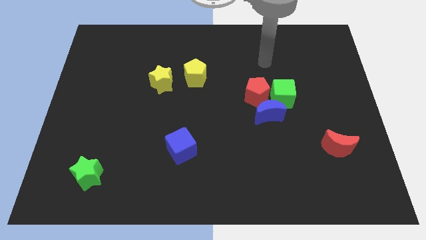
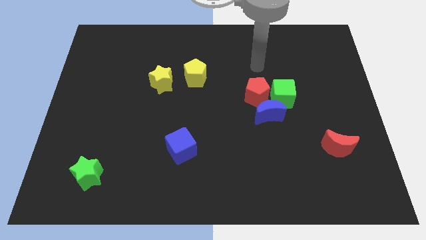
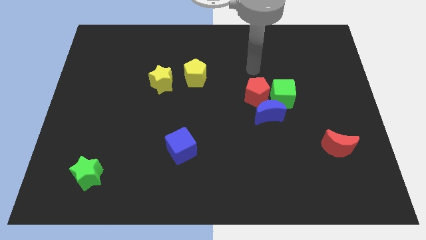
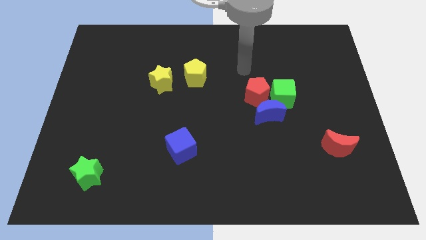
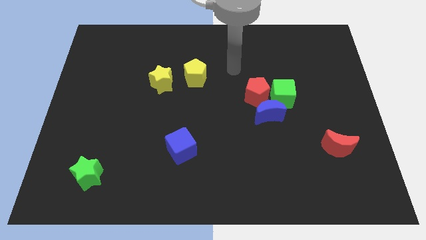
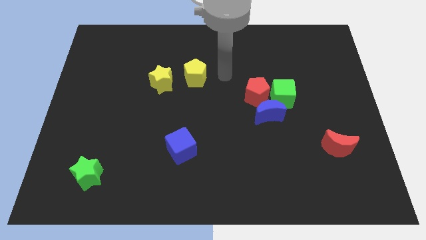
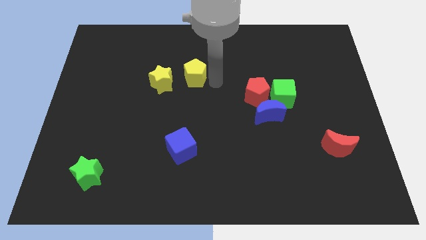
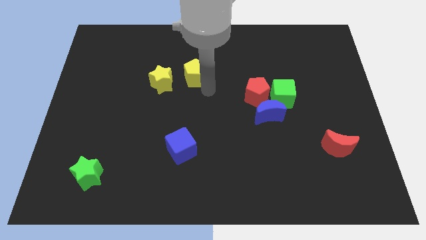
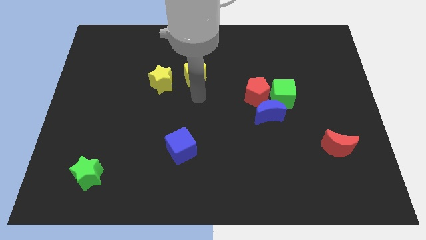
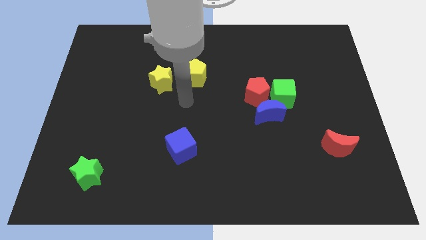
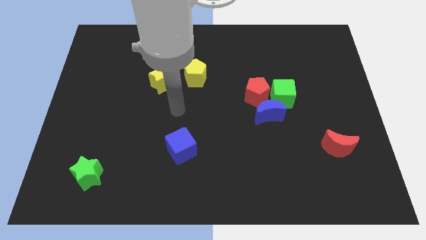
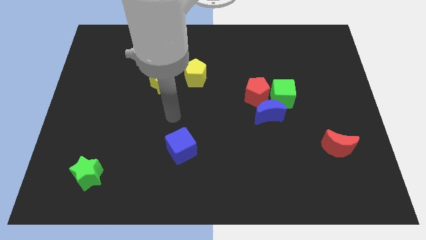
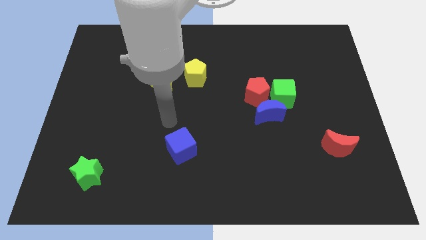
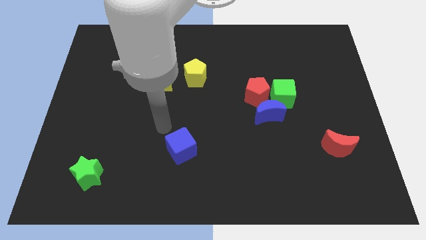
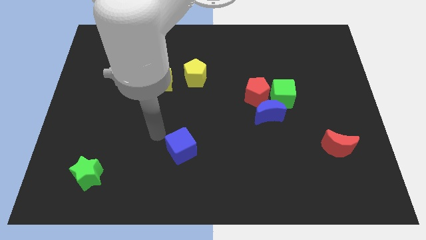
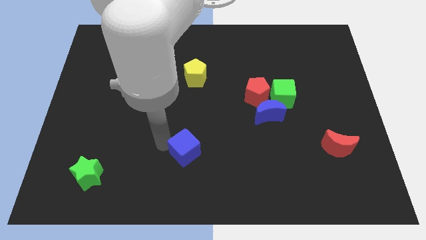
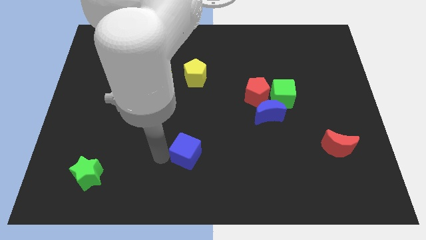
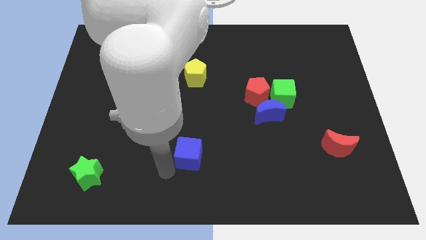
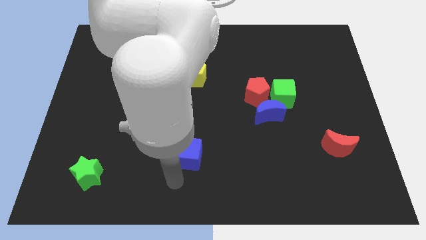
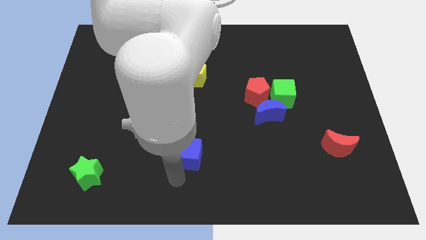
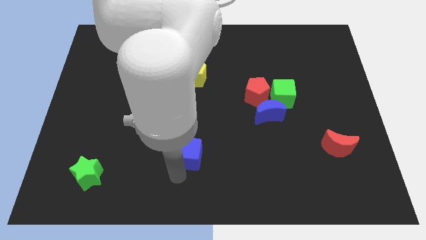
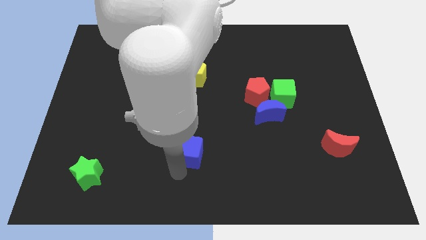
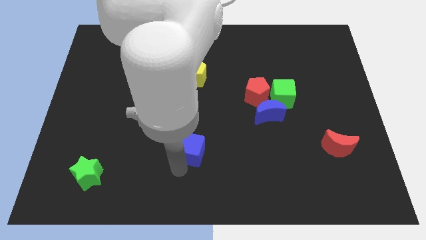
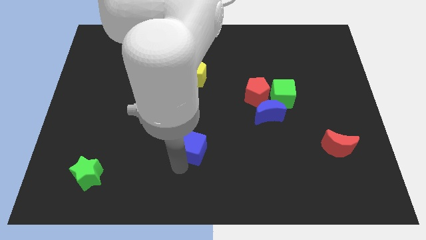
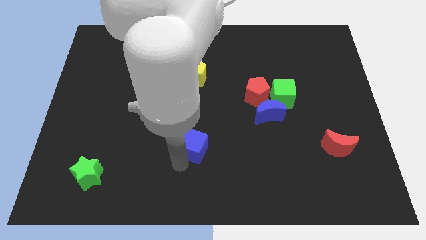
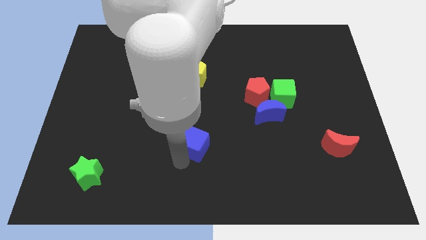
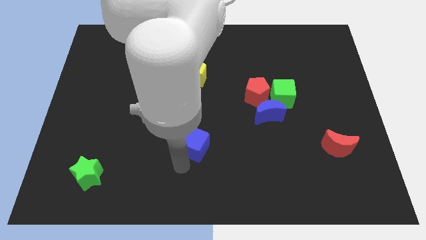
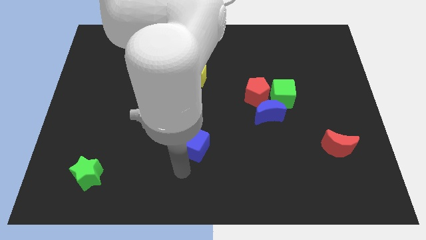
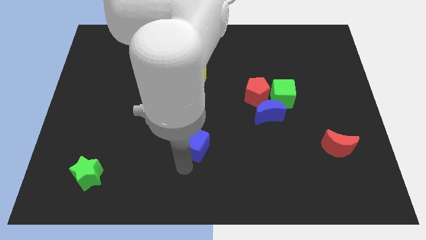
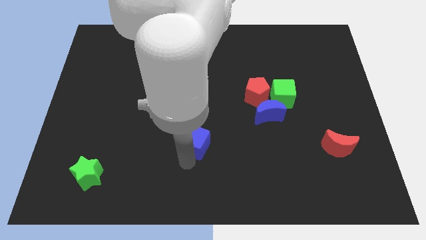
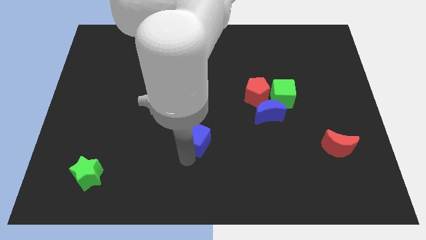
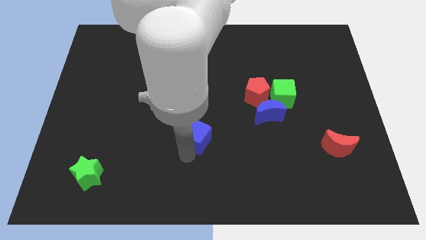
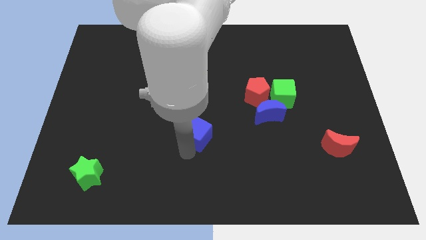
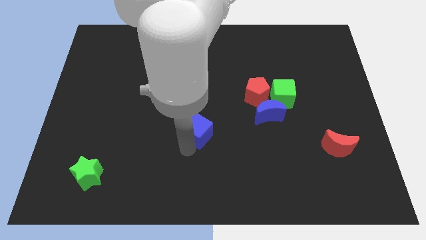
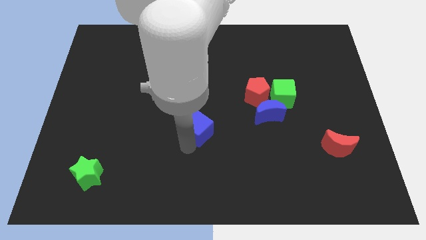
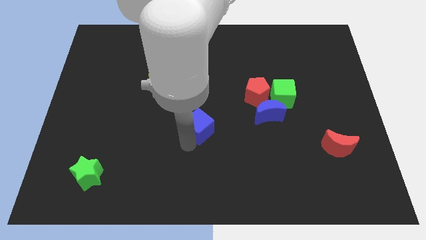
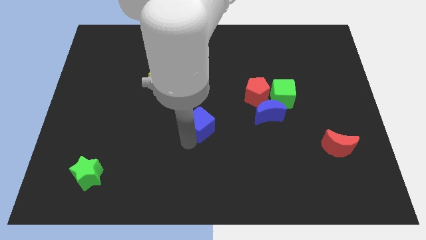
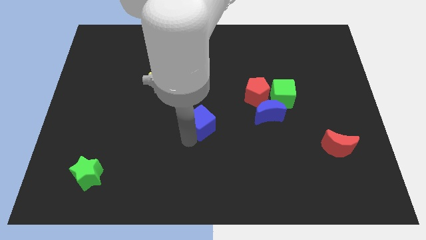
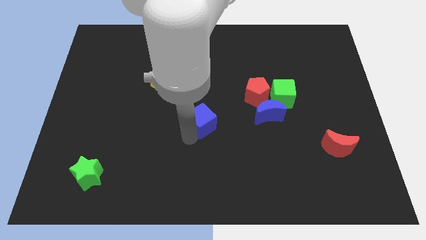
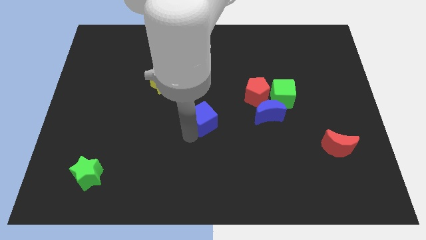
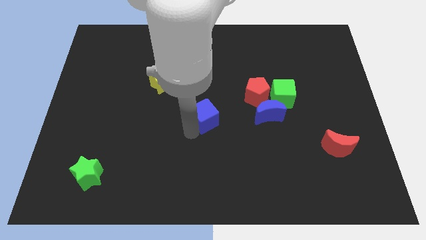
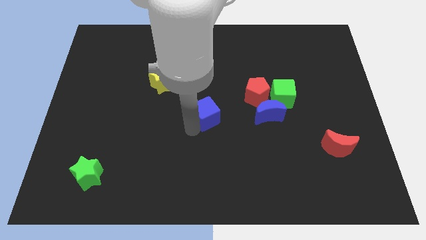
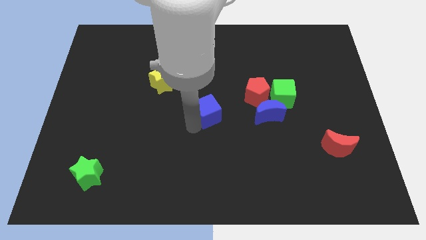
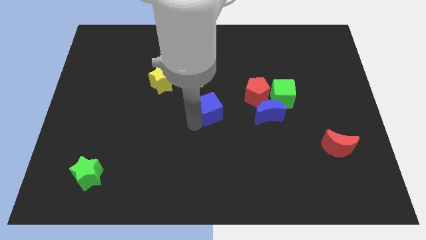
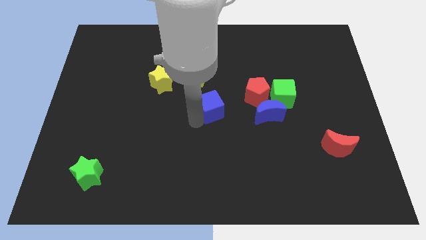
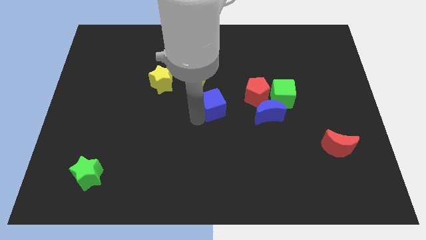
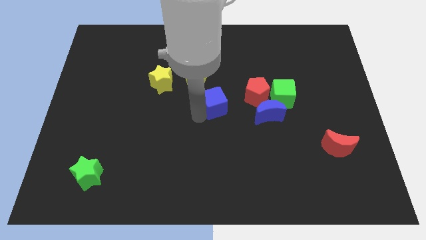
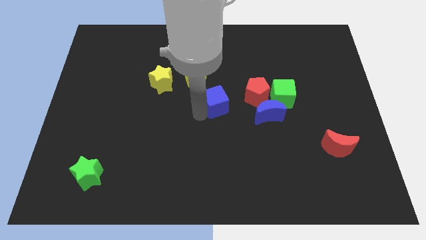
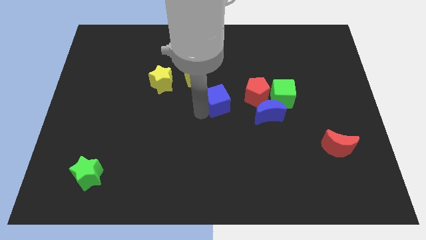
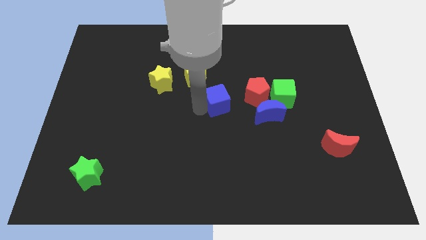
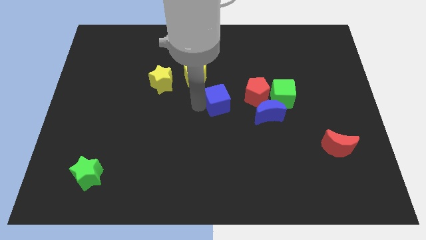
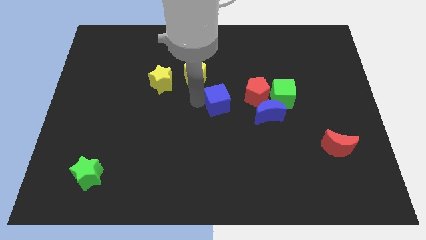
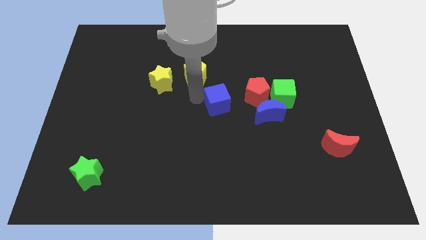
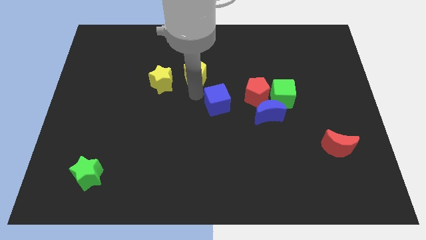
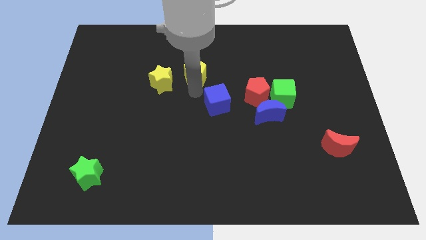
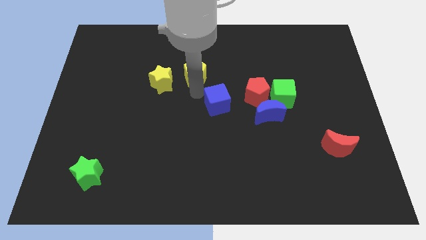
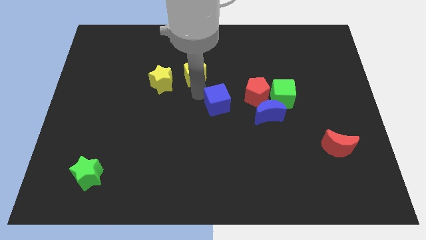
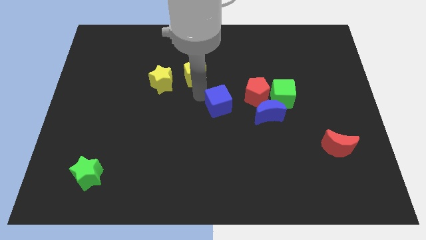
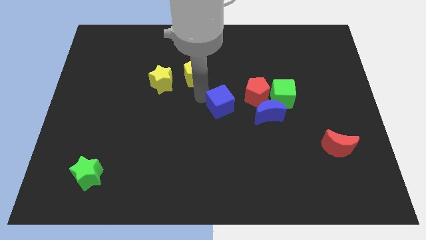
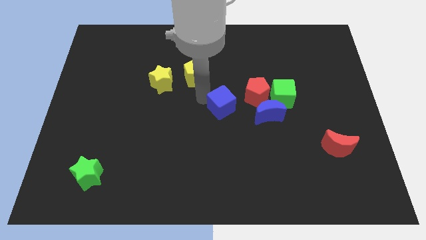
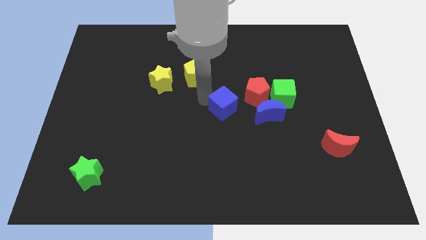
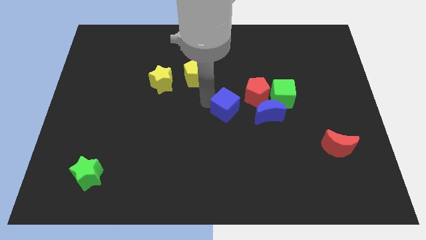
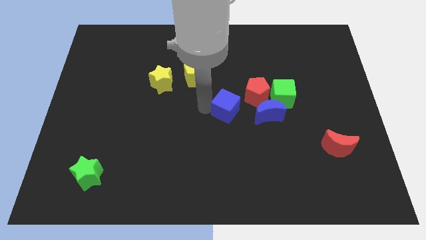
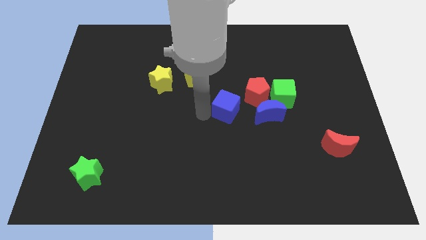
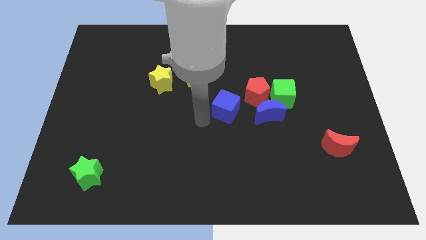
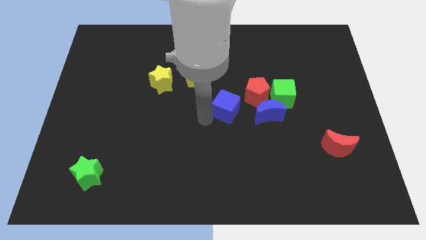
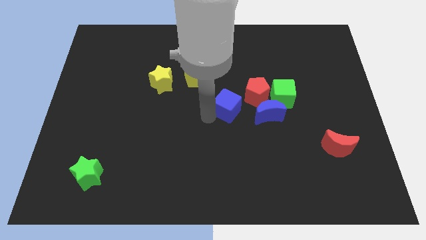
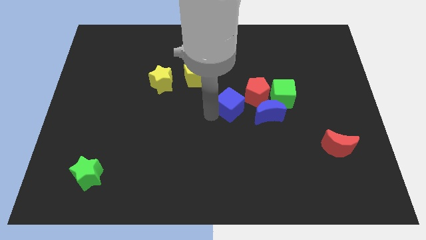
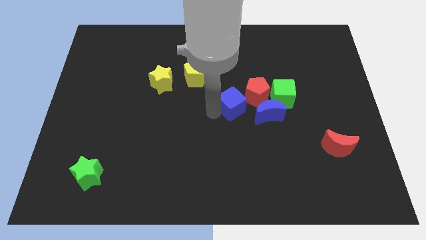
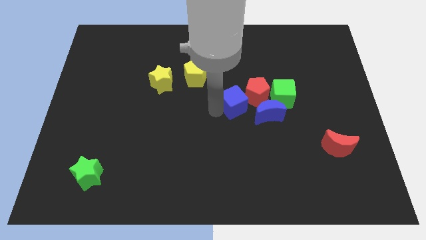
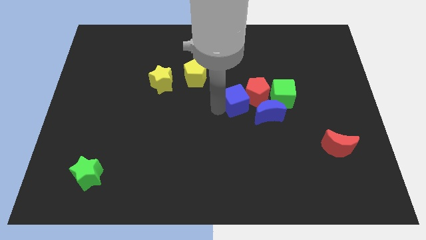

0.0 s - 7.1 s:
move the blue cube to the red pentagon
